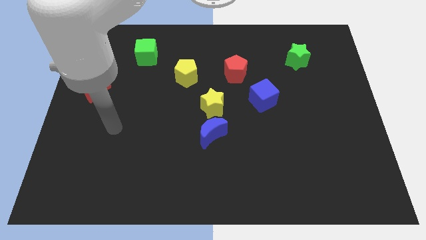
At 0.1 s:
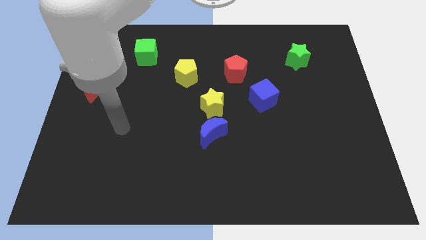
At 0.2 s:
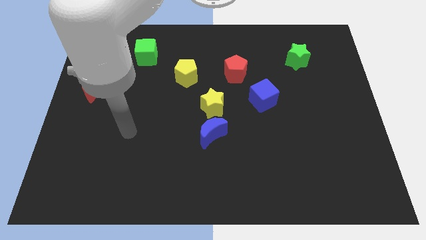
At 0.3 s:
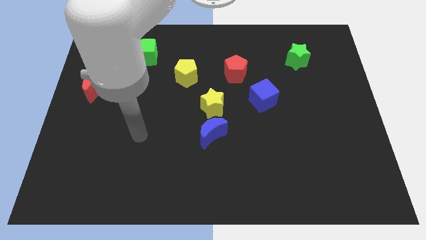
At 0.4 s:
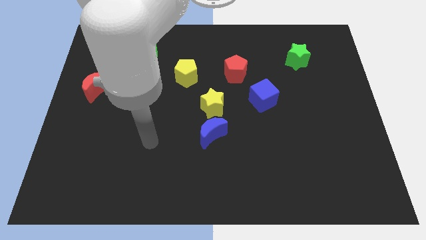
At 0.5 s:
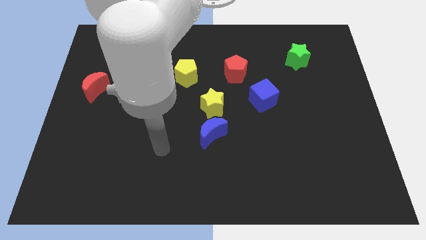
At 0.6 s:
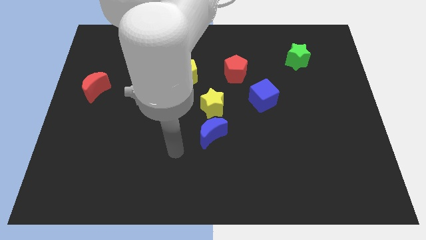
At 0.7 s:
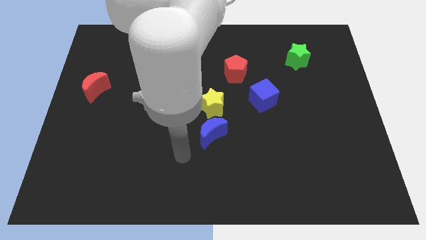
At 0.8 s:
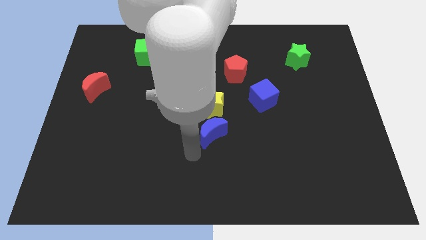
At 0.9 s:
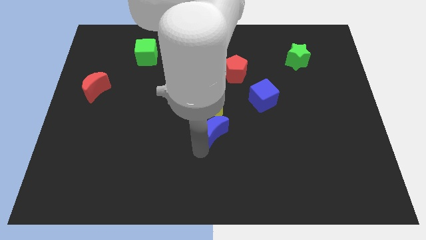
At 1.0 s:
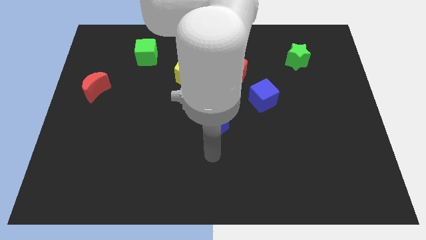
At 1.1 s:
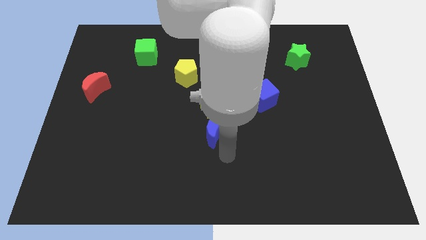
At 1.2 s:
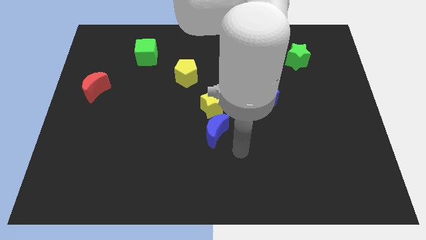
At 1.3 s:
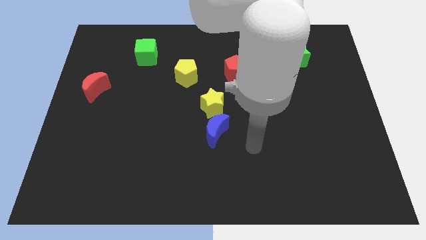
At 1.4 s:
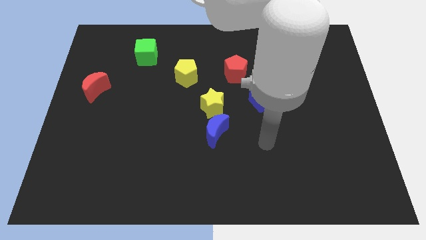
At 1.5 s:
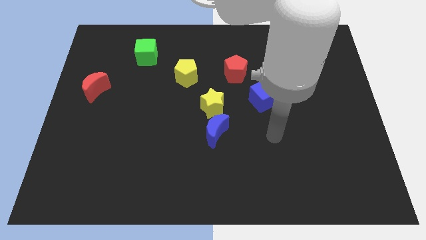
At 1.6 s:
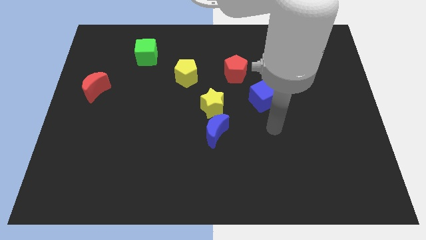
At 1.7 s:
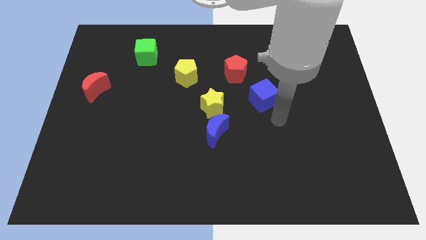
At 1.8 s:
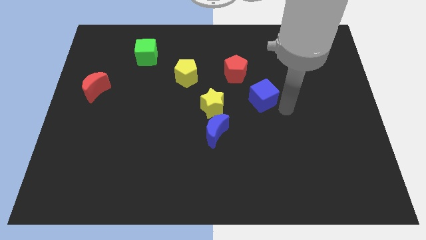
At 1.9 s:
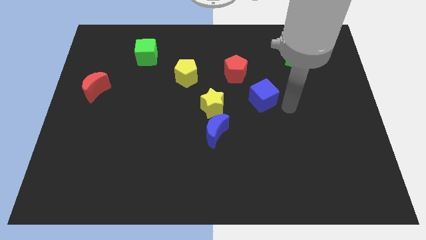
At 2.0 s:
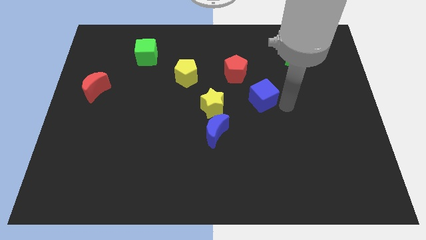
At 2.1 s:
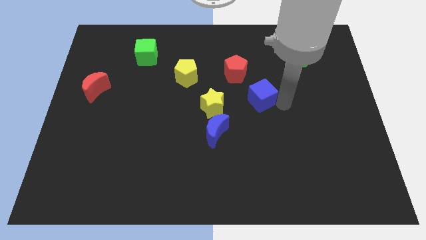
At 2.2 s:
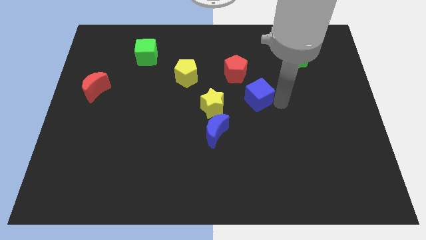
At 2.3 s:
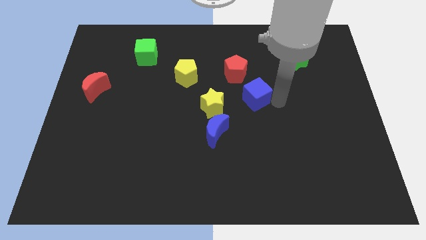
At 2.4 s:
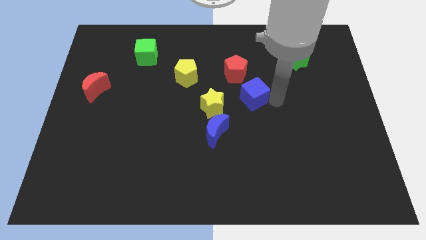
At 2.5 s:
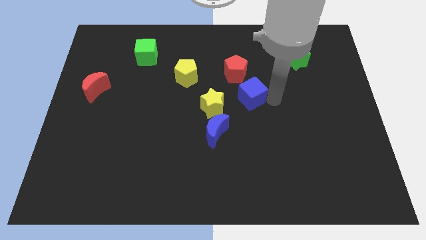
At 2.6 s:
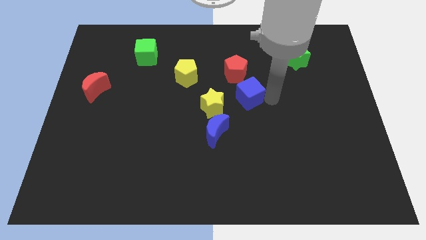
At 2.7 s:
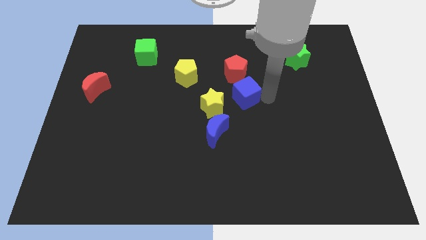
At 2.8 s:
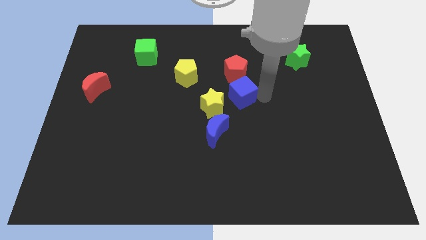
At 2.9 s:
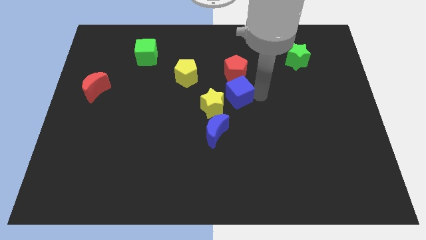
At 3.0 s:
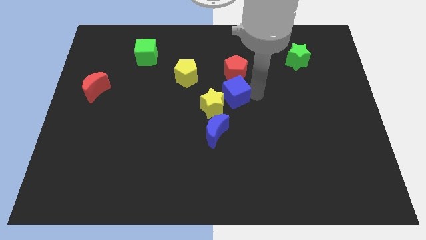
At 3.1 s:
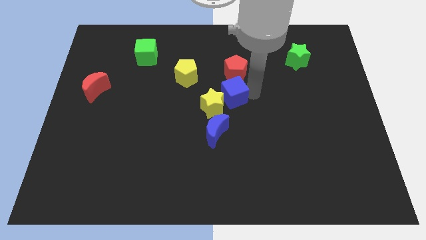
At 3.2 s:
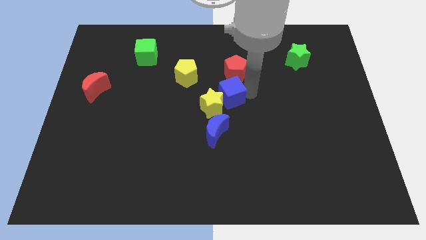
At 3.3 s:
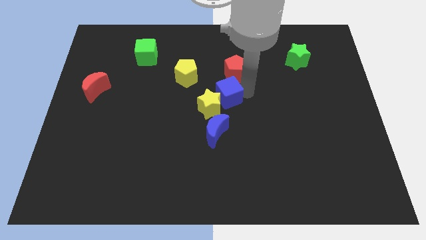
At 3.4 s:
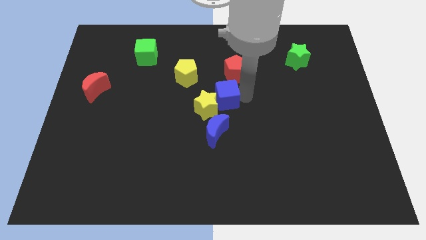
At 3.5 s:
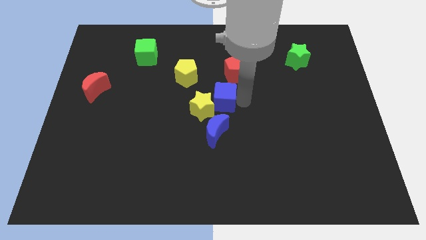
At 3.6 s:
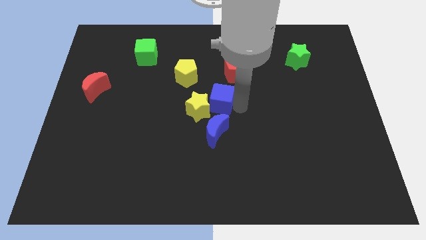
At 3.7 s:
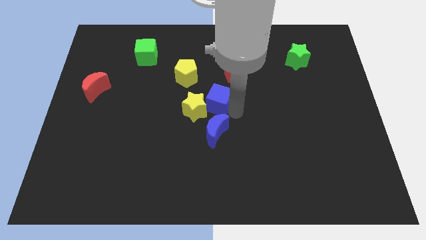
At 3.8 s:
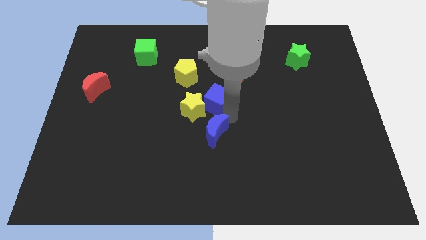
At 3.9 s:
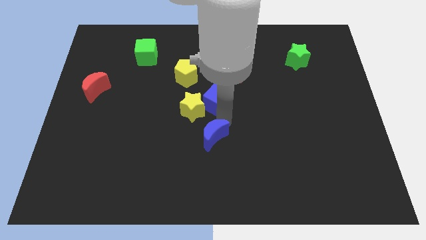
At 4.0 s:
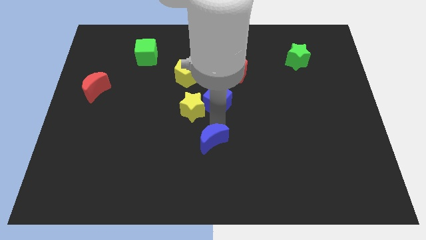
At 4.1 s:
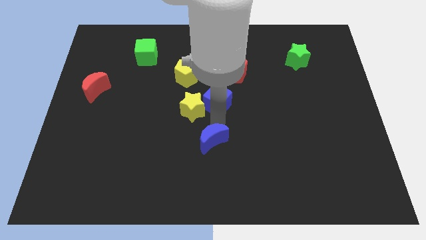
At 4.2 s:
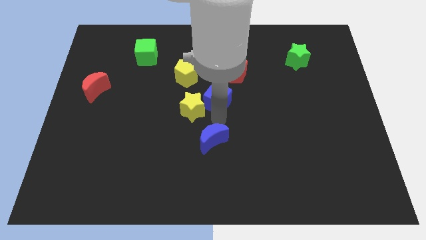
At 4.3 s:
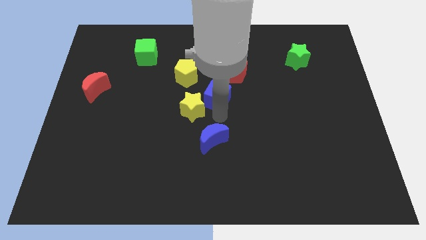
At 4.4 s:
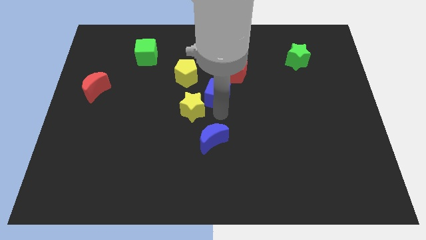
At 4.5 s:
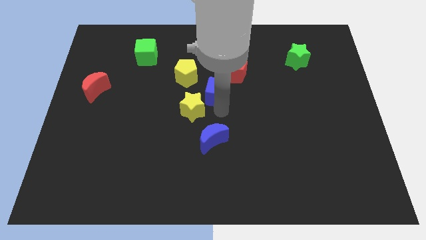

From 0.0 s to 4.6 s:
push the blue cube up and left diagonally a little

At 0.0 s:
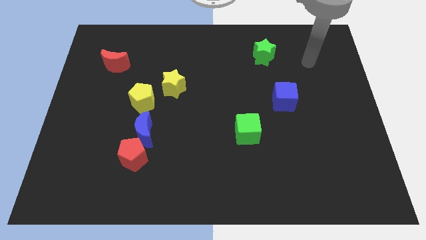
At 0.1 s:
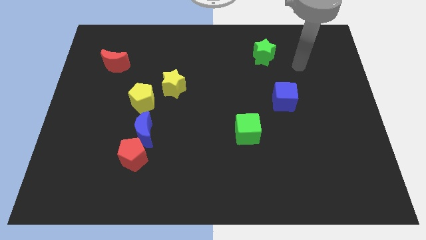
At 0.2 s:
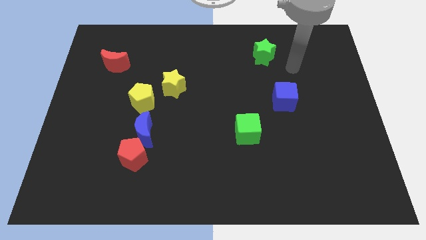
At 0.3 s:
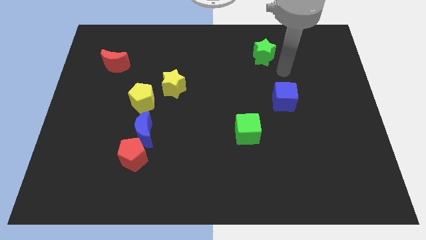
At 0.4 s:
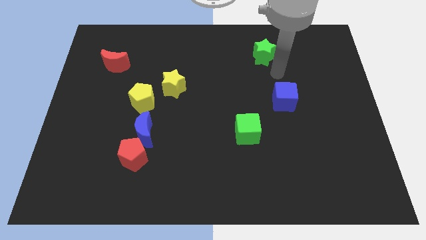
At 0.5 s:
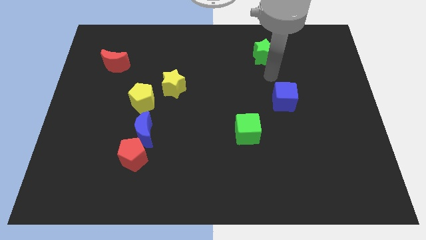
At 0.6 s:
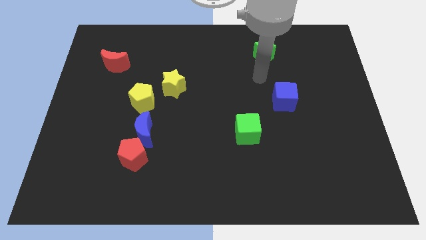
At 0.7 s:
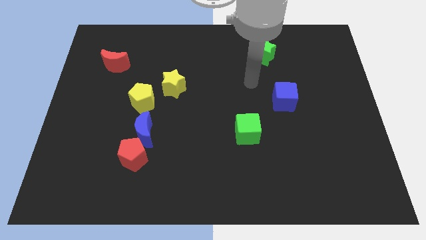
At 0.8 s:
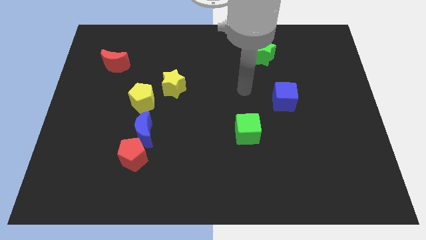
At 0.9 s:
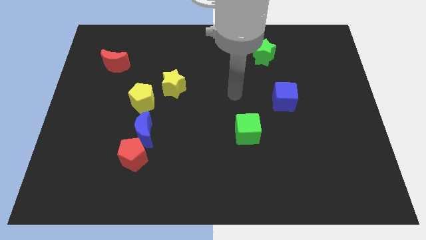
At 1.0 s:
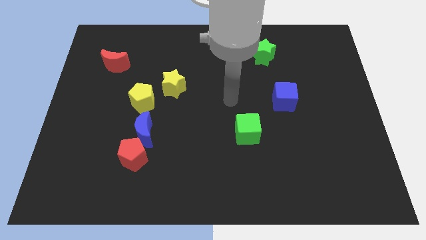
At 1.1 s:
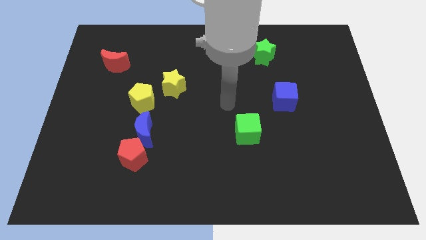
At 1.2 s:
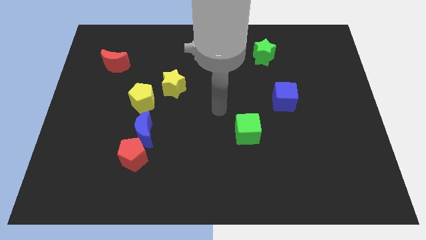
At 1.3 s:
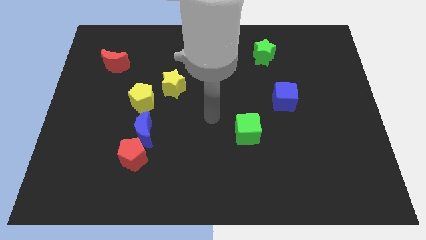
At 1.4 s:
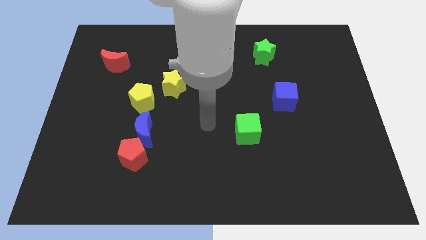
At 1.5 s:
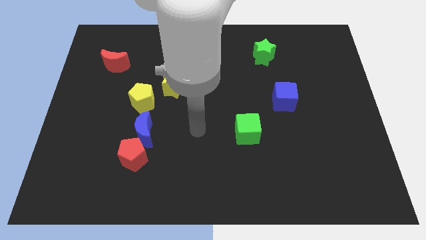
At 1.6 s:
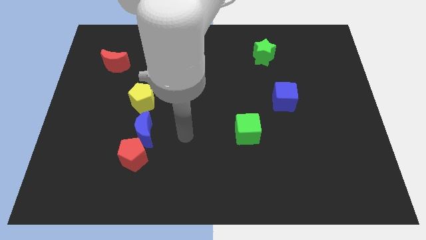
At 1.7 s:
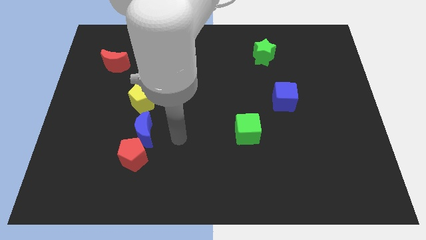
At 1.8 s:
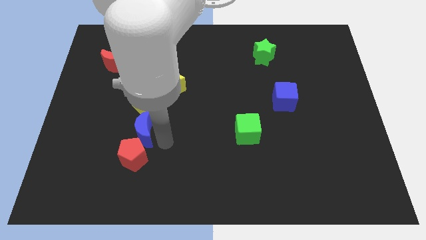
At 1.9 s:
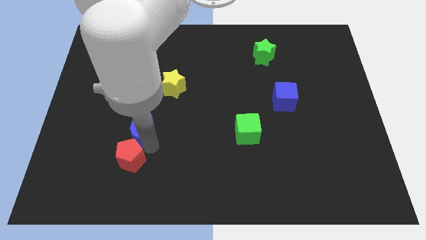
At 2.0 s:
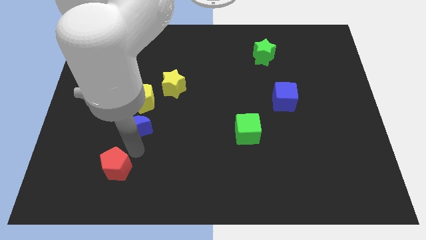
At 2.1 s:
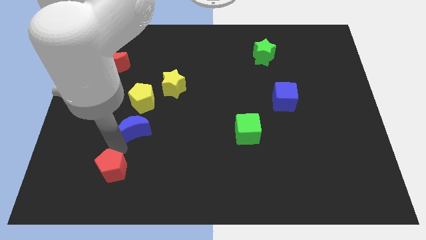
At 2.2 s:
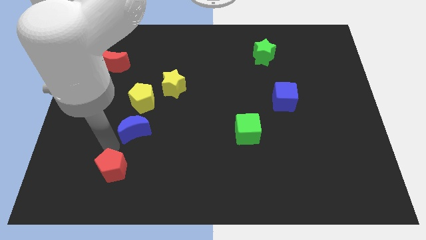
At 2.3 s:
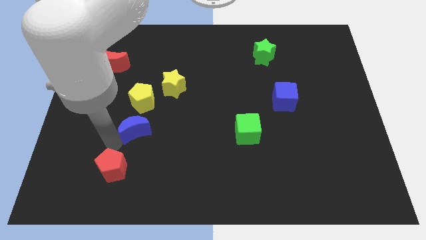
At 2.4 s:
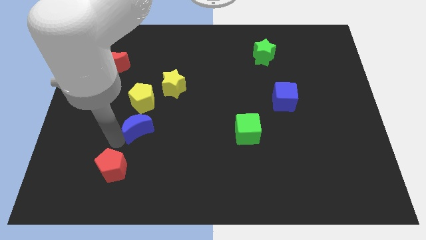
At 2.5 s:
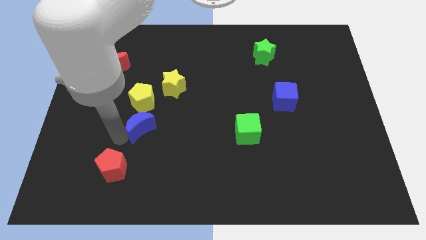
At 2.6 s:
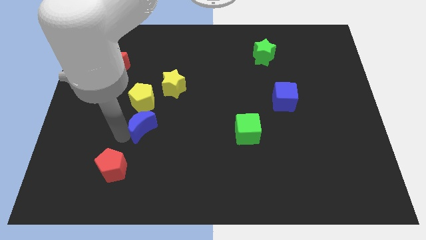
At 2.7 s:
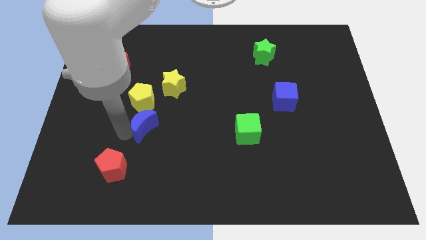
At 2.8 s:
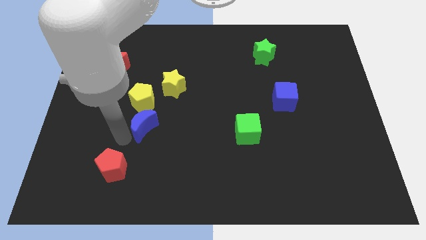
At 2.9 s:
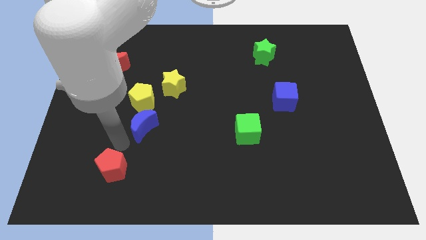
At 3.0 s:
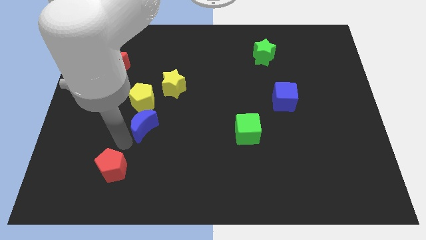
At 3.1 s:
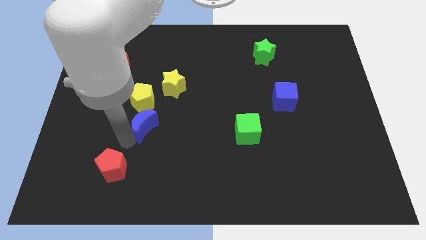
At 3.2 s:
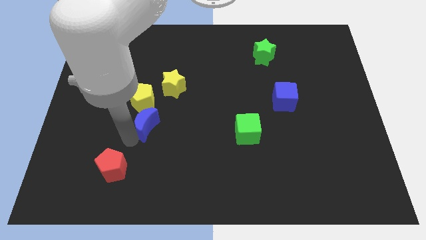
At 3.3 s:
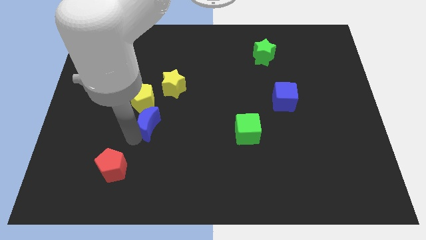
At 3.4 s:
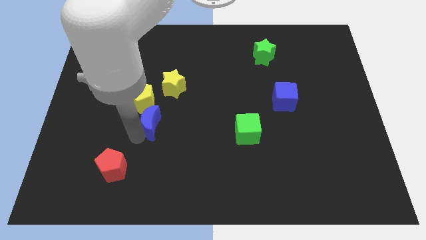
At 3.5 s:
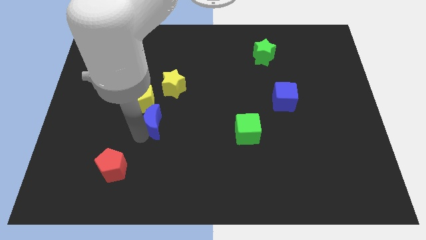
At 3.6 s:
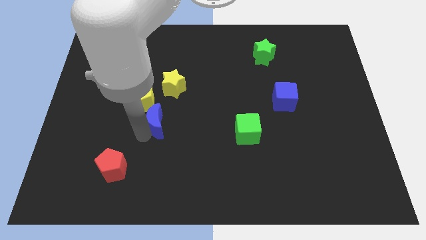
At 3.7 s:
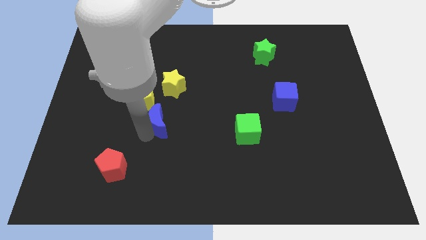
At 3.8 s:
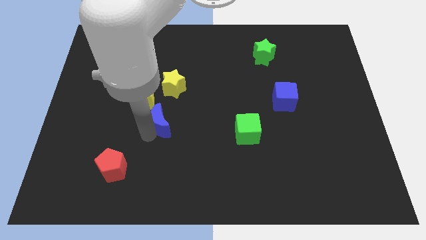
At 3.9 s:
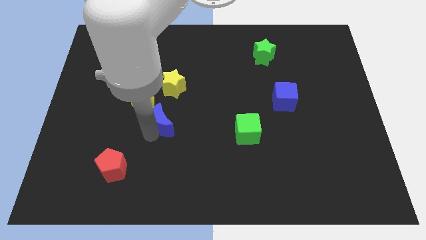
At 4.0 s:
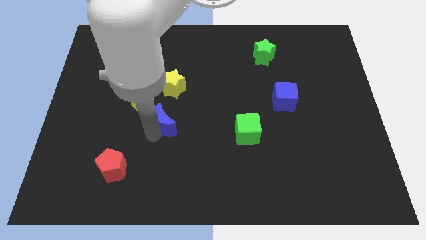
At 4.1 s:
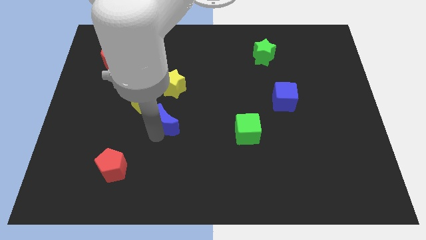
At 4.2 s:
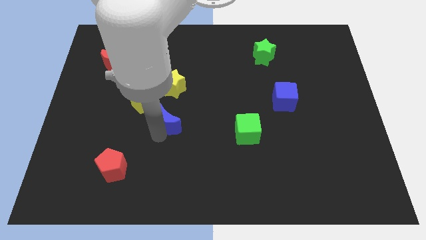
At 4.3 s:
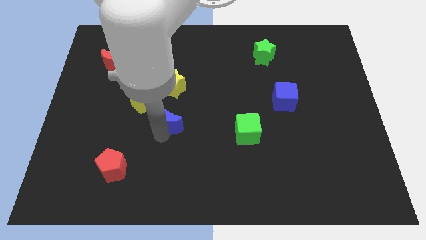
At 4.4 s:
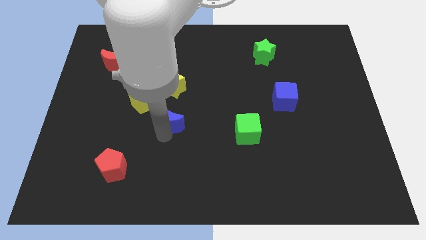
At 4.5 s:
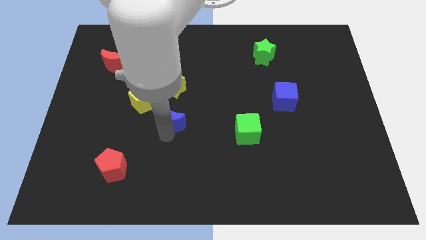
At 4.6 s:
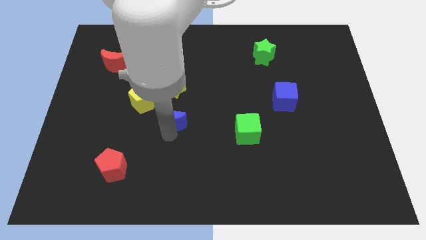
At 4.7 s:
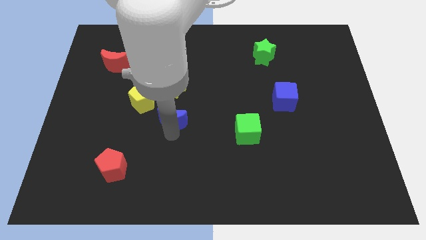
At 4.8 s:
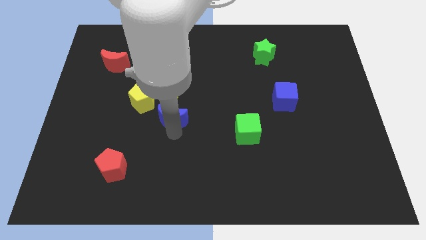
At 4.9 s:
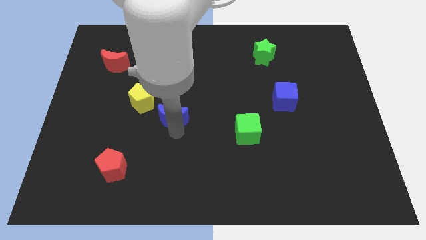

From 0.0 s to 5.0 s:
slide the blue moon upwards and right diagonally somewhat
